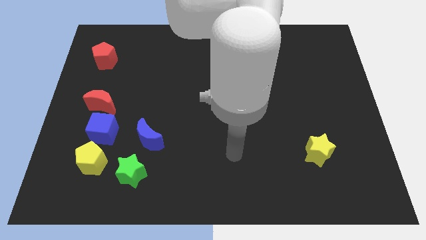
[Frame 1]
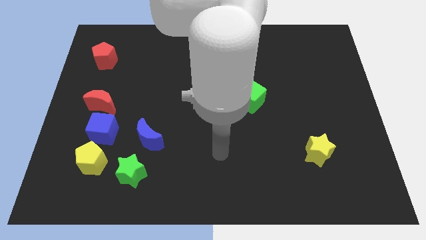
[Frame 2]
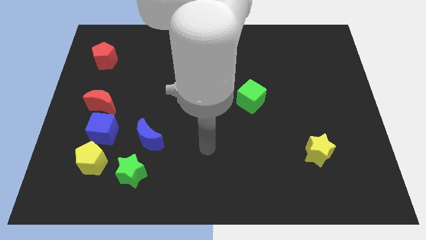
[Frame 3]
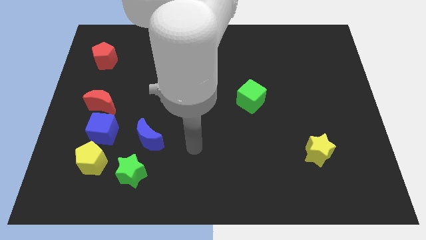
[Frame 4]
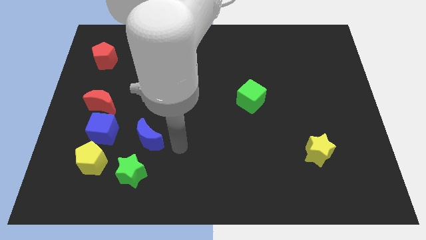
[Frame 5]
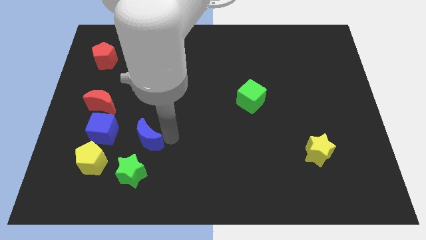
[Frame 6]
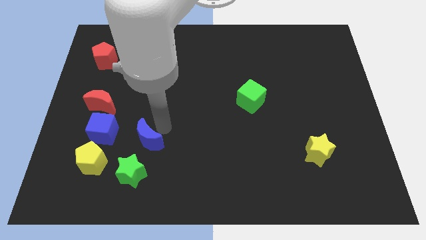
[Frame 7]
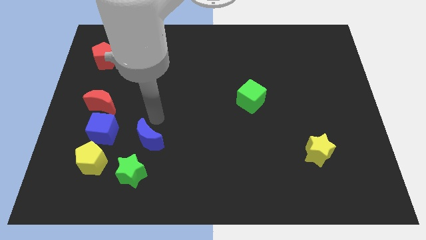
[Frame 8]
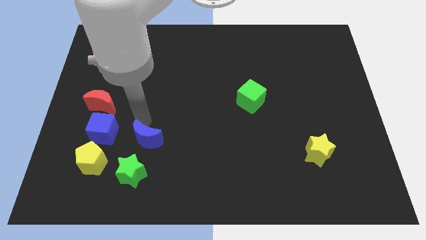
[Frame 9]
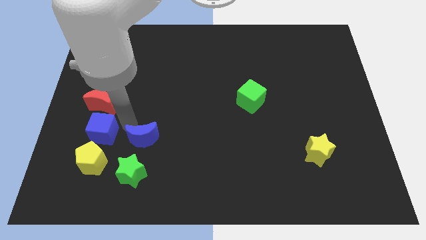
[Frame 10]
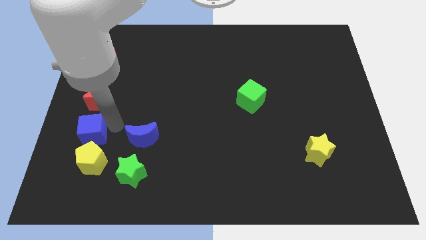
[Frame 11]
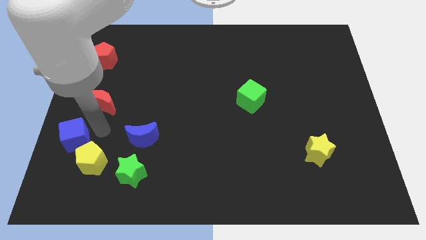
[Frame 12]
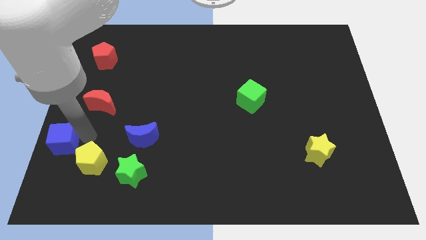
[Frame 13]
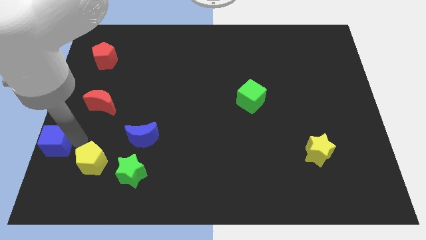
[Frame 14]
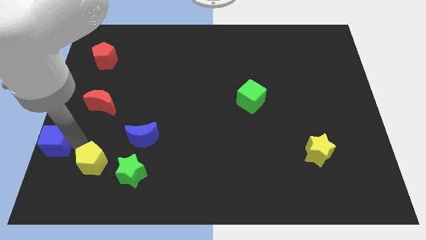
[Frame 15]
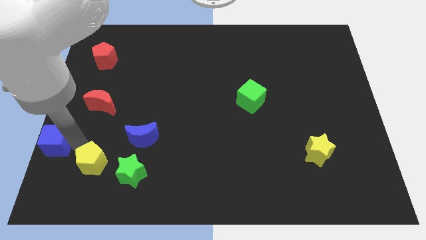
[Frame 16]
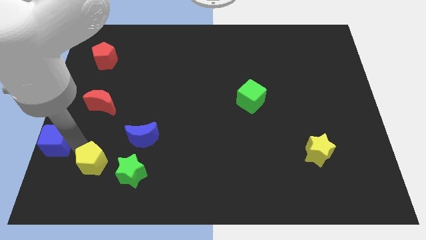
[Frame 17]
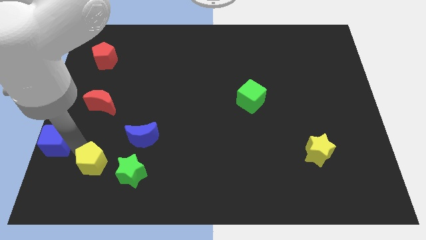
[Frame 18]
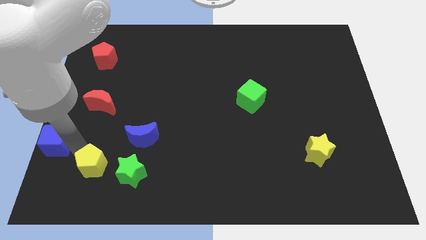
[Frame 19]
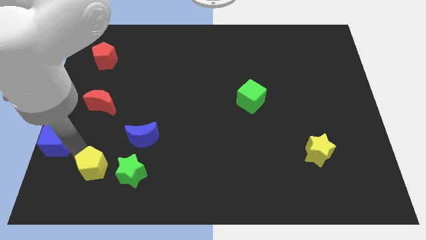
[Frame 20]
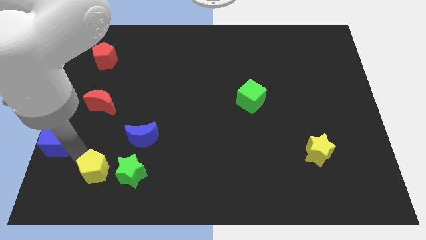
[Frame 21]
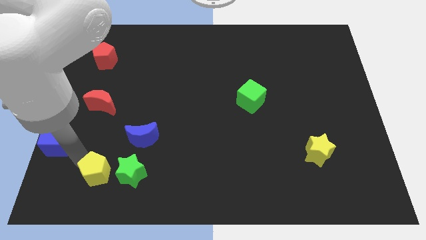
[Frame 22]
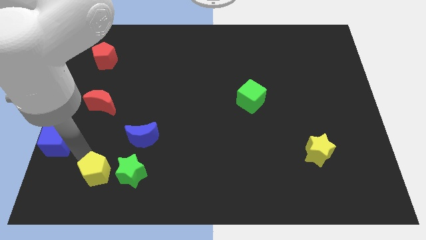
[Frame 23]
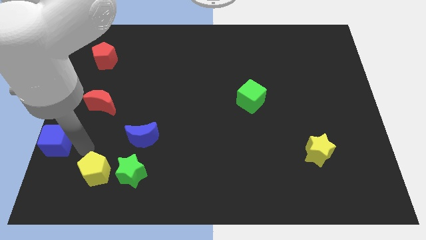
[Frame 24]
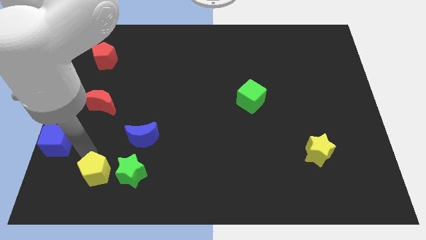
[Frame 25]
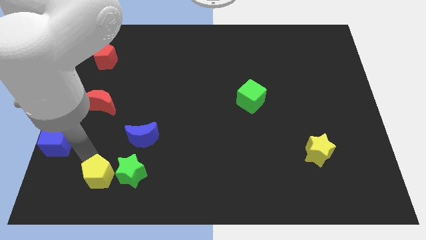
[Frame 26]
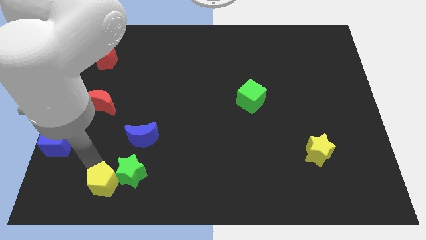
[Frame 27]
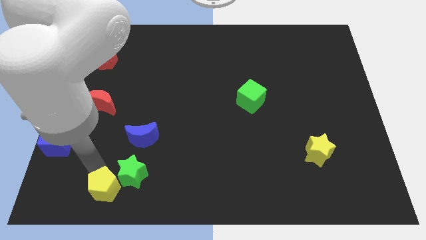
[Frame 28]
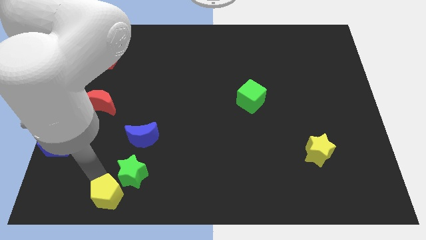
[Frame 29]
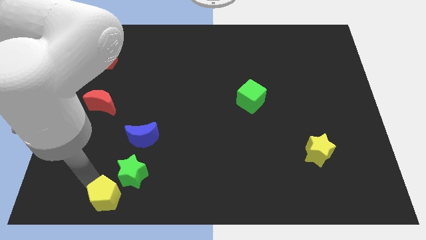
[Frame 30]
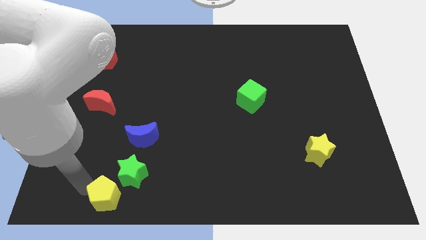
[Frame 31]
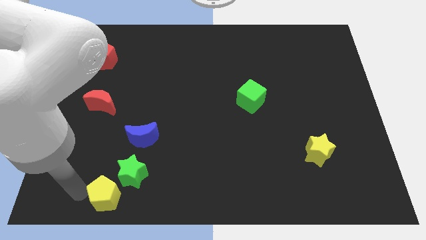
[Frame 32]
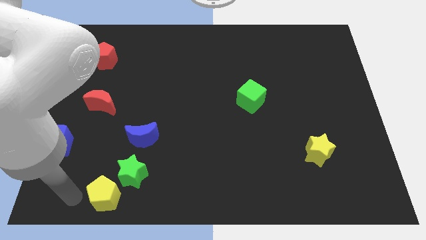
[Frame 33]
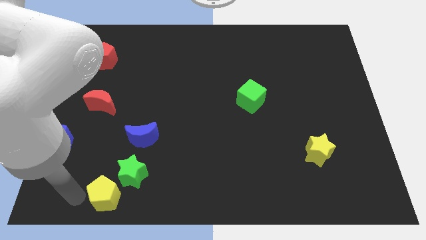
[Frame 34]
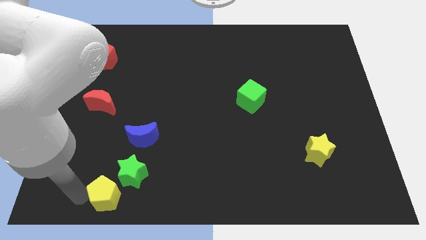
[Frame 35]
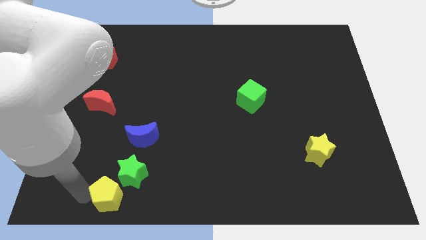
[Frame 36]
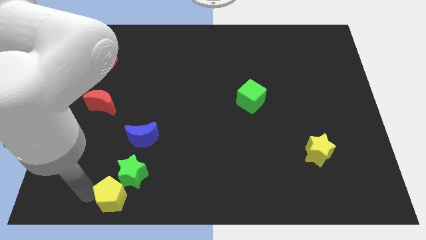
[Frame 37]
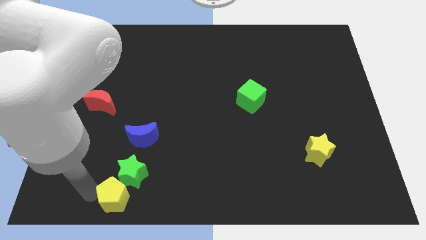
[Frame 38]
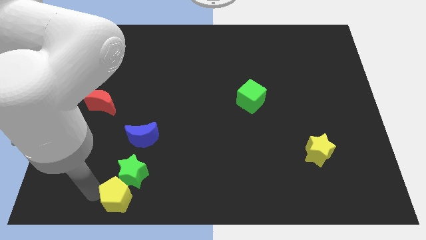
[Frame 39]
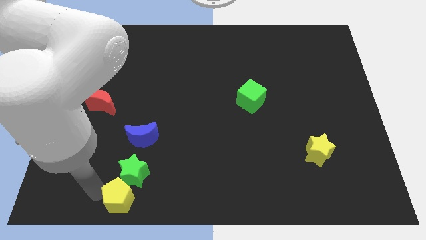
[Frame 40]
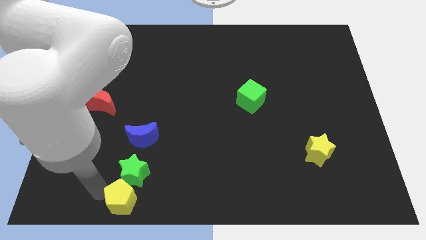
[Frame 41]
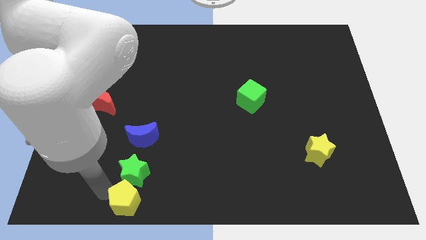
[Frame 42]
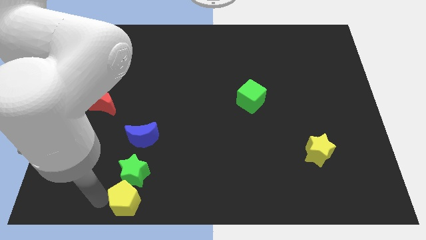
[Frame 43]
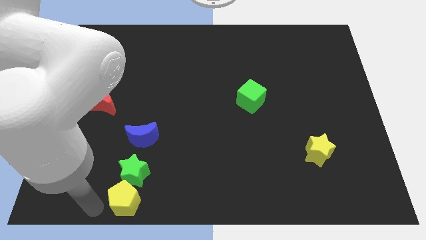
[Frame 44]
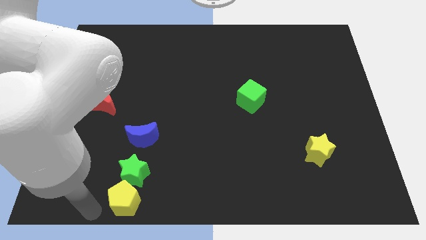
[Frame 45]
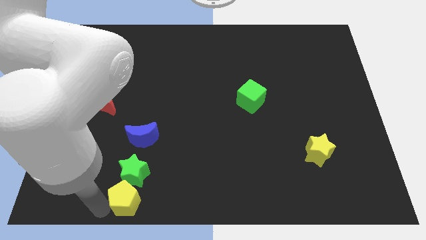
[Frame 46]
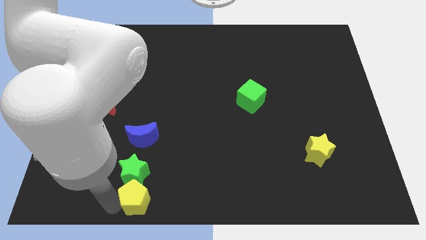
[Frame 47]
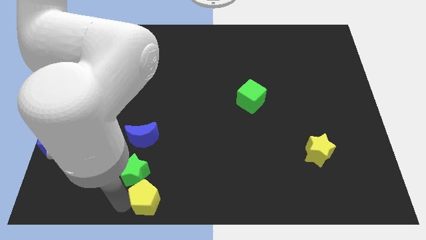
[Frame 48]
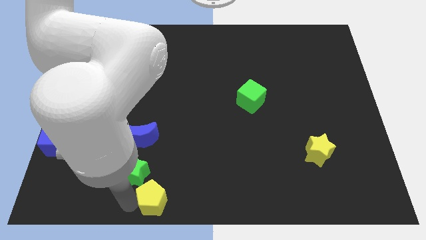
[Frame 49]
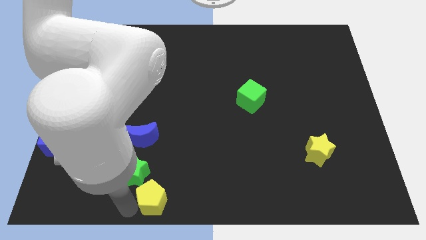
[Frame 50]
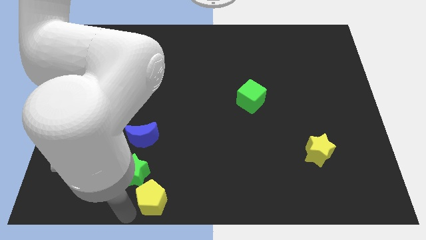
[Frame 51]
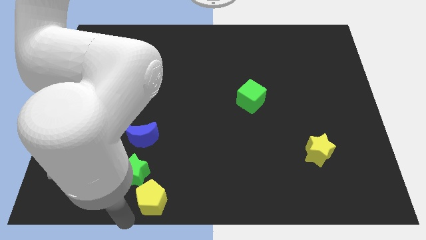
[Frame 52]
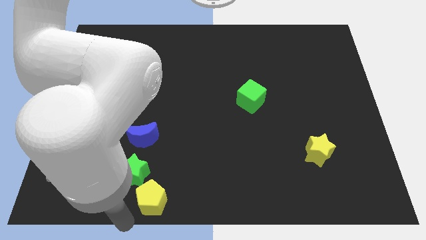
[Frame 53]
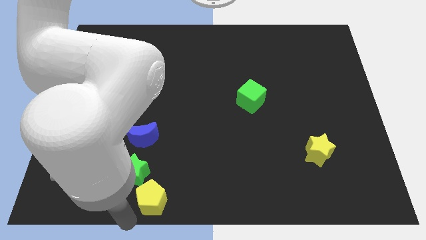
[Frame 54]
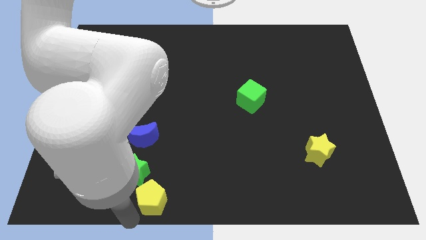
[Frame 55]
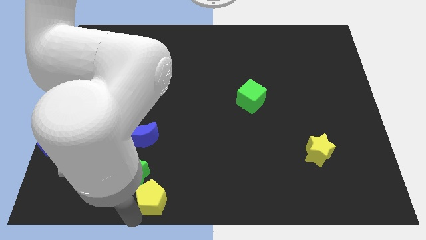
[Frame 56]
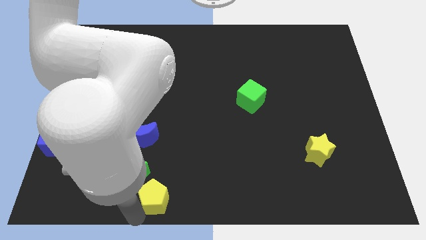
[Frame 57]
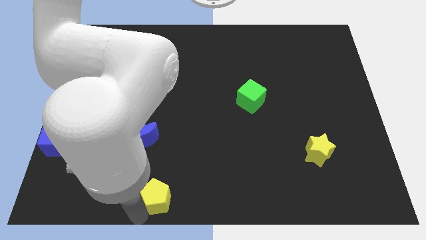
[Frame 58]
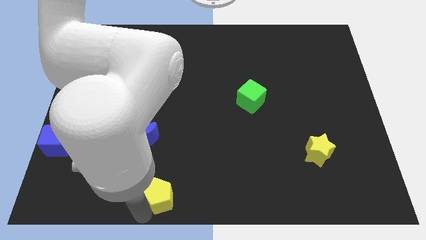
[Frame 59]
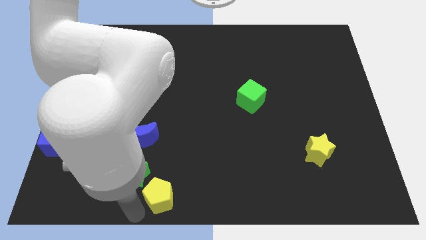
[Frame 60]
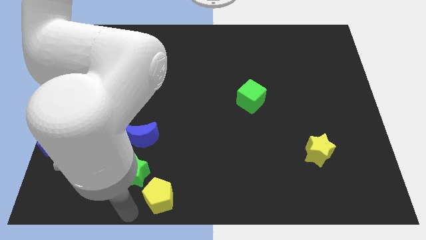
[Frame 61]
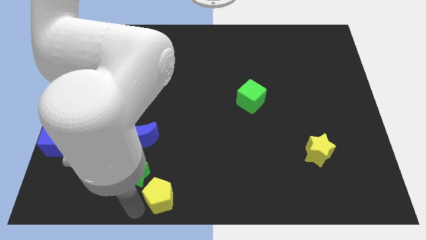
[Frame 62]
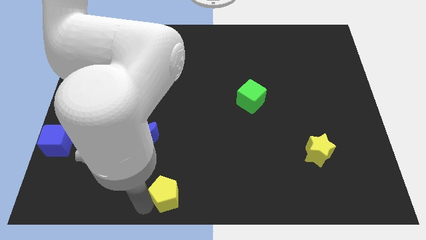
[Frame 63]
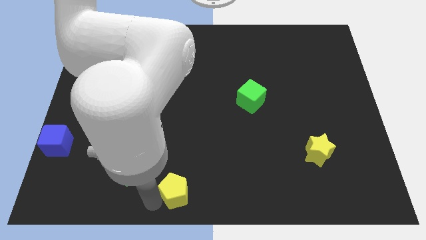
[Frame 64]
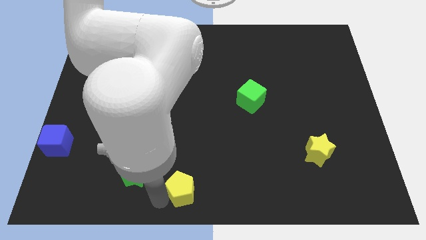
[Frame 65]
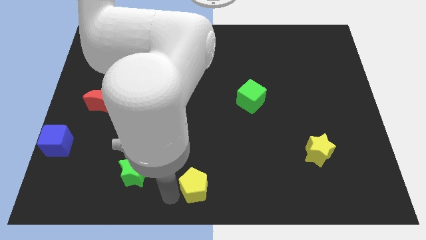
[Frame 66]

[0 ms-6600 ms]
move the yellow pentagon to the right

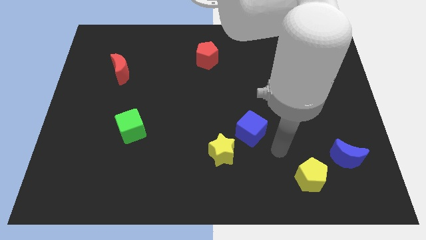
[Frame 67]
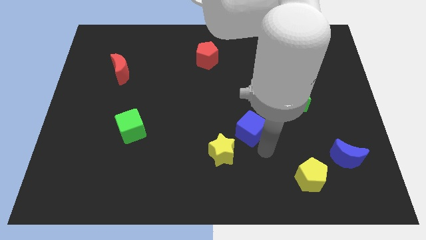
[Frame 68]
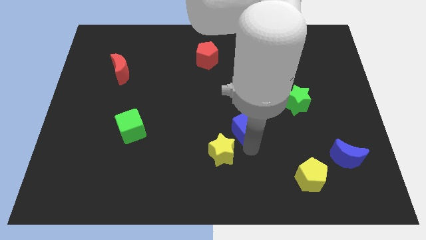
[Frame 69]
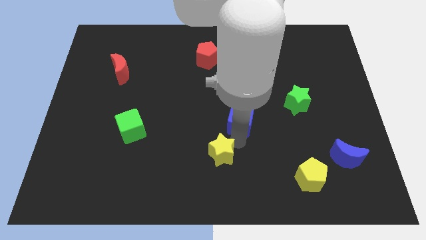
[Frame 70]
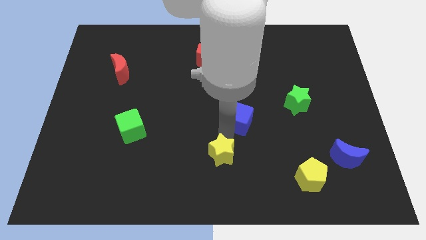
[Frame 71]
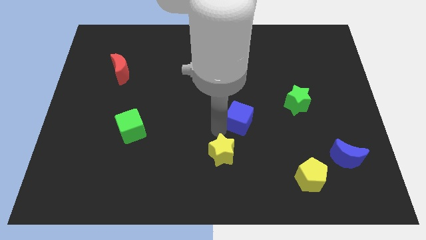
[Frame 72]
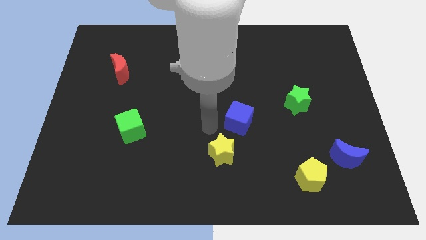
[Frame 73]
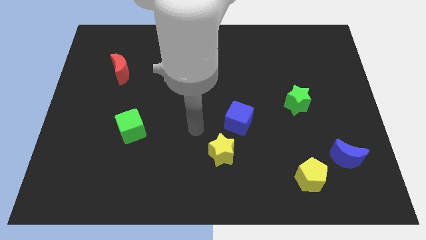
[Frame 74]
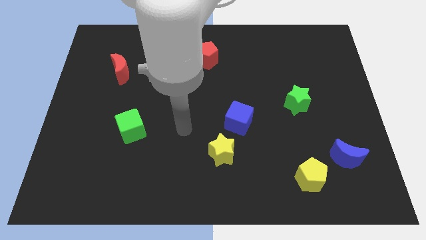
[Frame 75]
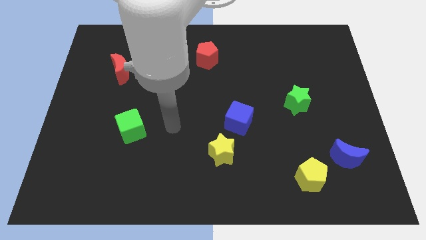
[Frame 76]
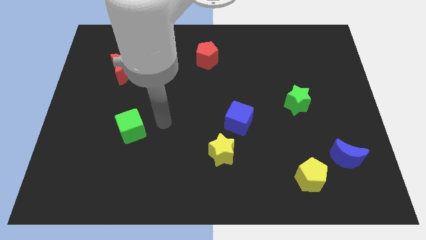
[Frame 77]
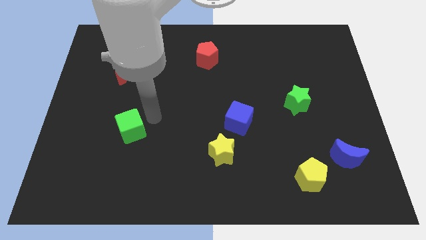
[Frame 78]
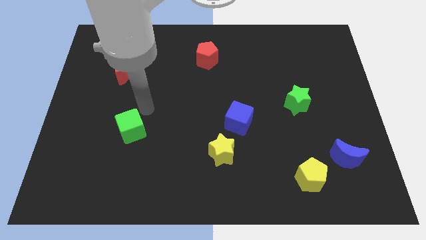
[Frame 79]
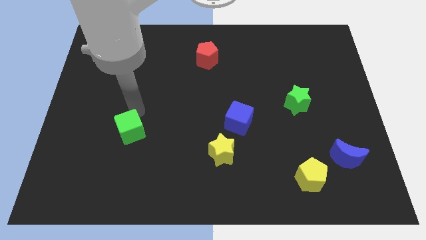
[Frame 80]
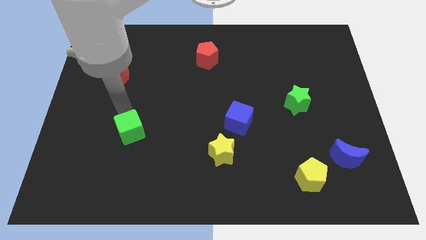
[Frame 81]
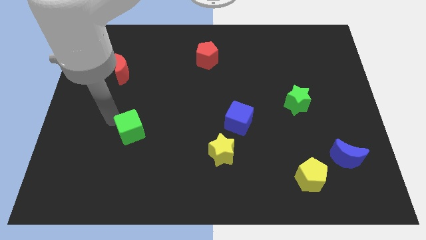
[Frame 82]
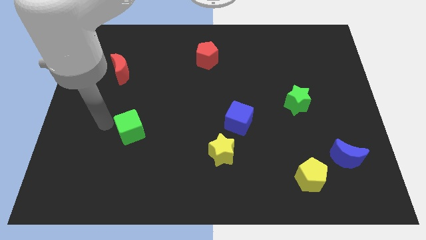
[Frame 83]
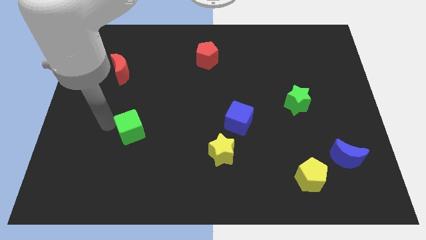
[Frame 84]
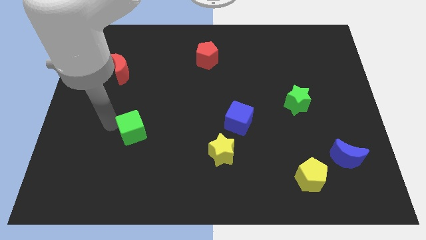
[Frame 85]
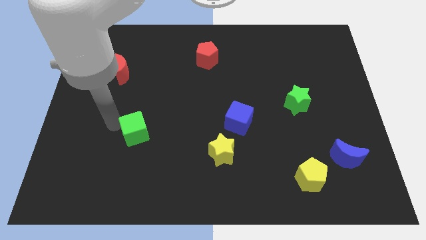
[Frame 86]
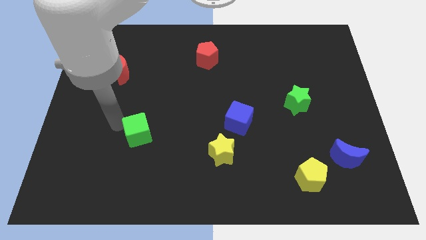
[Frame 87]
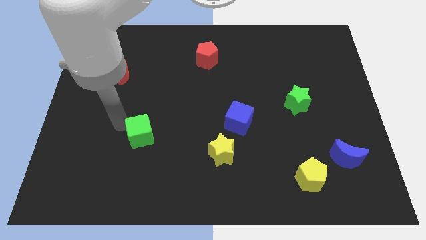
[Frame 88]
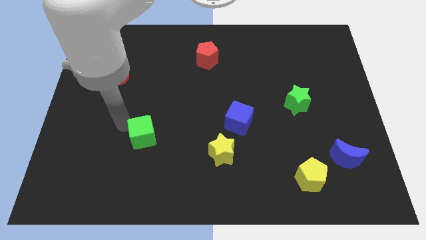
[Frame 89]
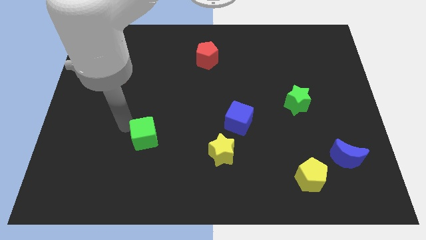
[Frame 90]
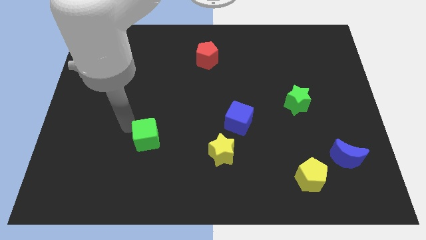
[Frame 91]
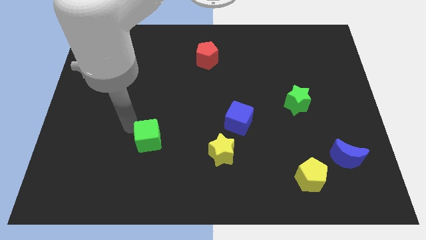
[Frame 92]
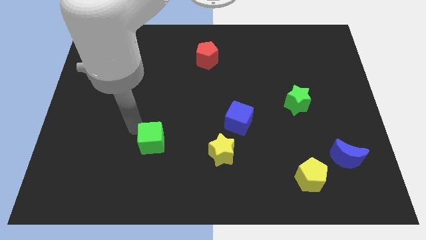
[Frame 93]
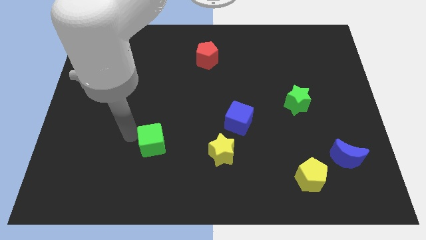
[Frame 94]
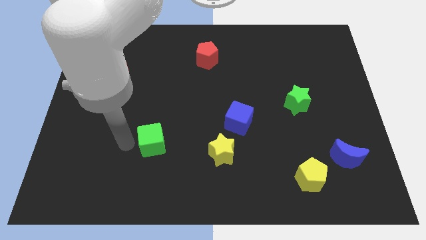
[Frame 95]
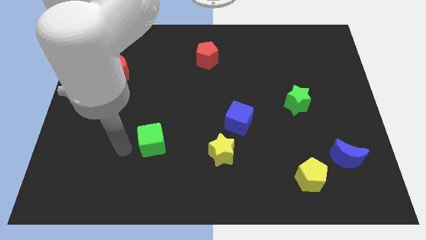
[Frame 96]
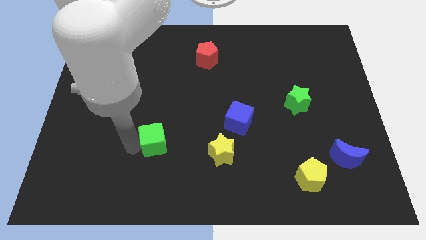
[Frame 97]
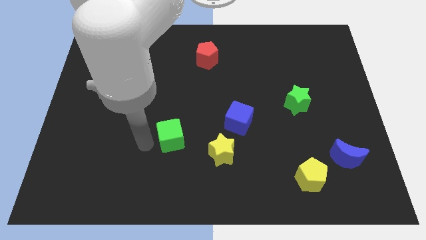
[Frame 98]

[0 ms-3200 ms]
move the green cube a little to the right
